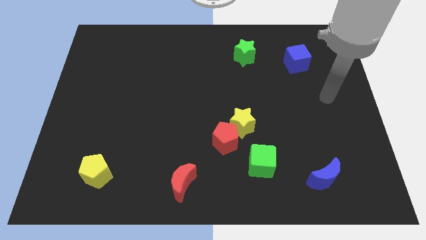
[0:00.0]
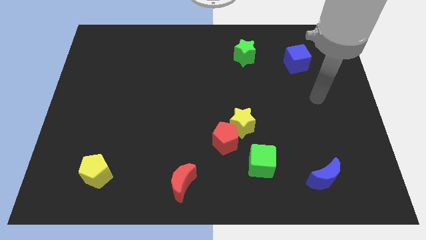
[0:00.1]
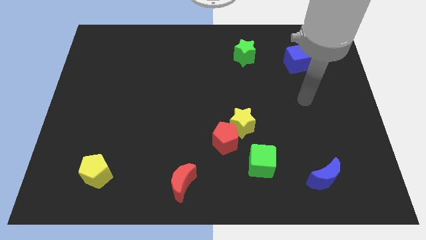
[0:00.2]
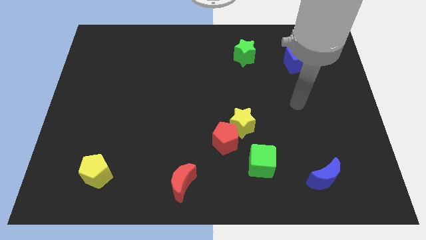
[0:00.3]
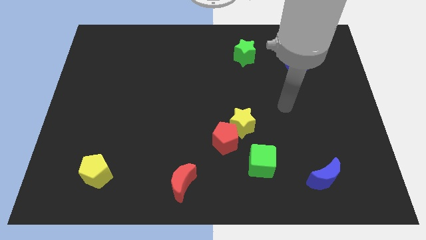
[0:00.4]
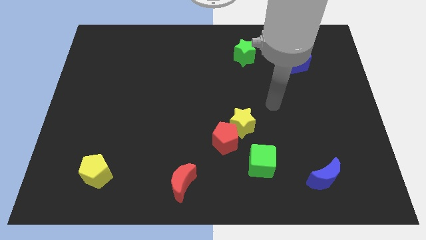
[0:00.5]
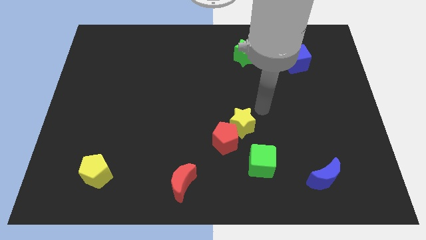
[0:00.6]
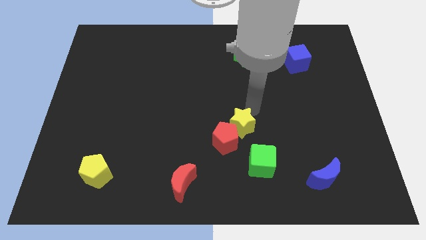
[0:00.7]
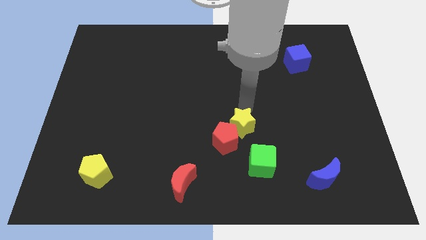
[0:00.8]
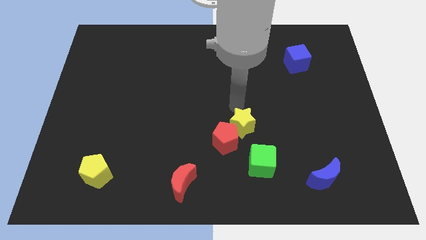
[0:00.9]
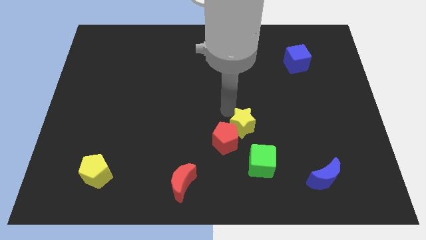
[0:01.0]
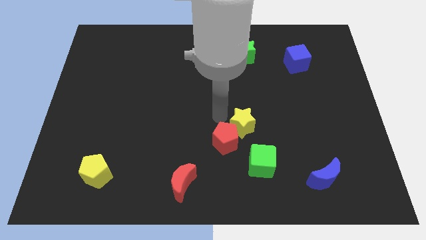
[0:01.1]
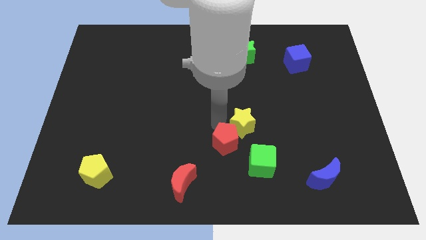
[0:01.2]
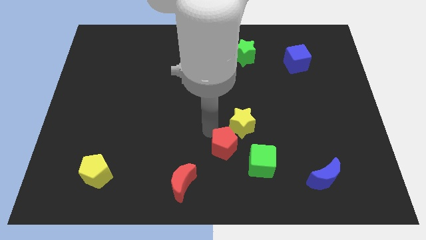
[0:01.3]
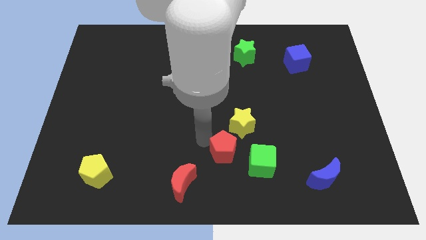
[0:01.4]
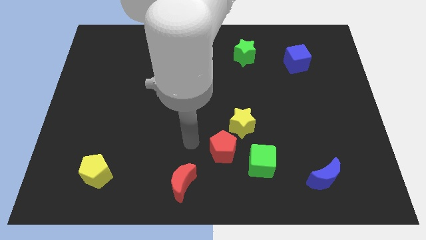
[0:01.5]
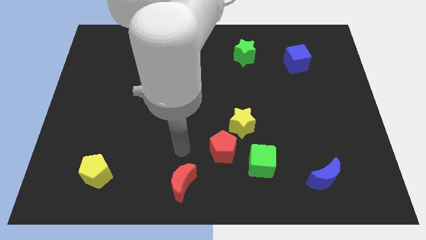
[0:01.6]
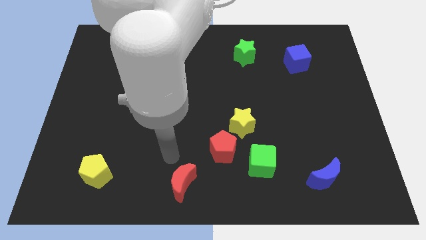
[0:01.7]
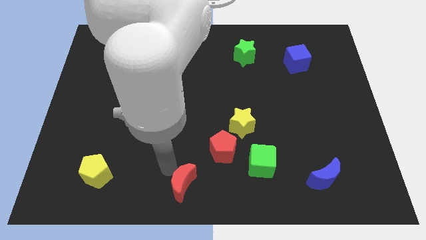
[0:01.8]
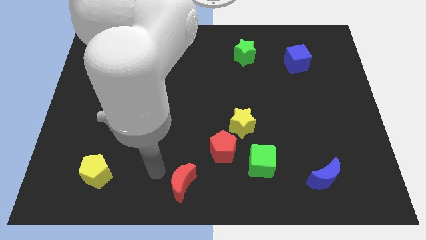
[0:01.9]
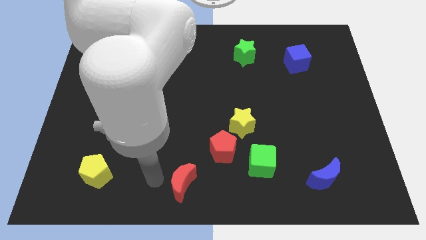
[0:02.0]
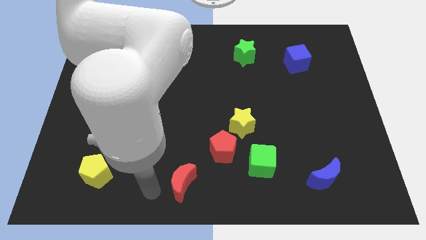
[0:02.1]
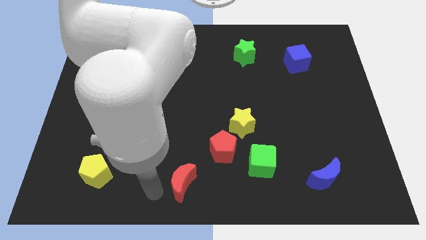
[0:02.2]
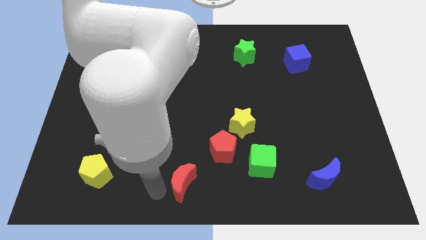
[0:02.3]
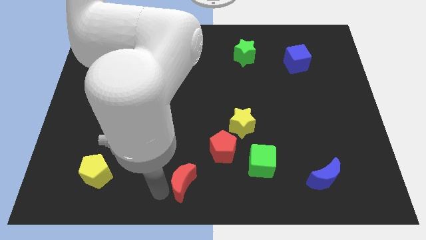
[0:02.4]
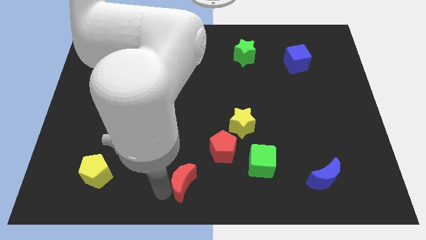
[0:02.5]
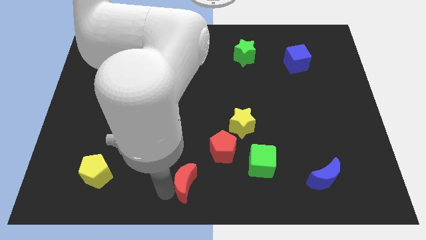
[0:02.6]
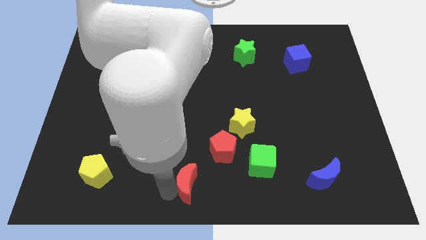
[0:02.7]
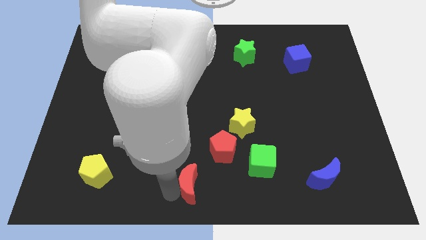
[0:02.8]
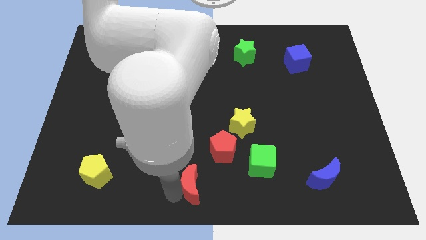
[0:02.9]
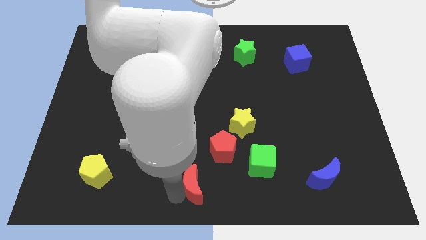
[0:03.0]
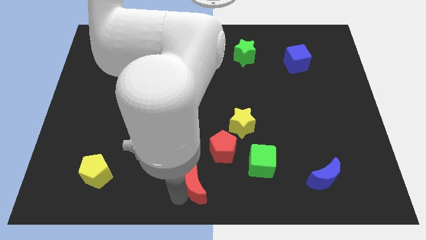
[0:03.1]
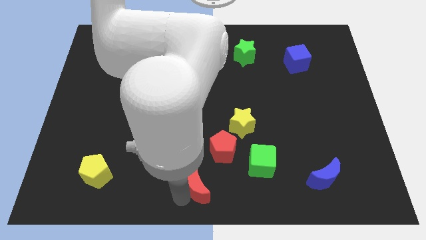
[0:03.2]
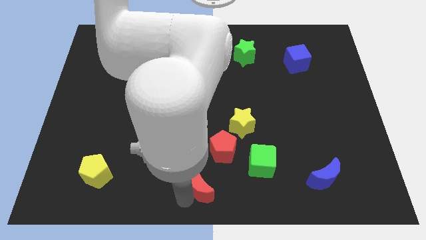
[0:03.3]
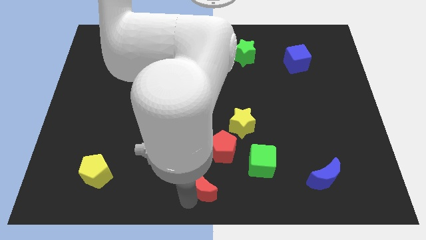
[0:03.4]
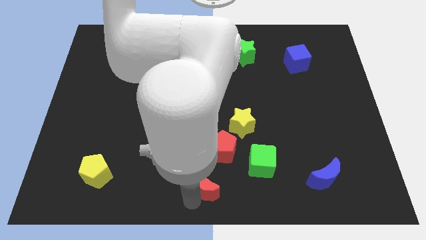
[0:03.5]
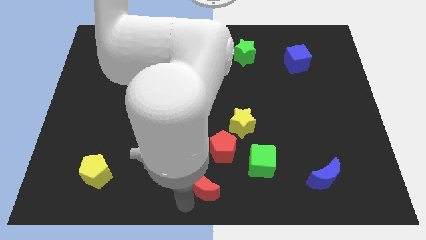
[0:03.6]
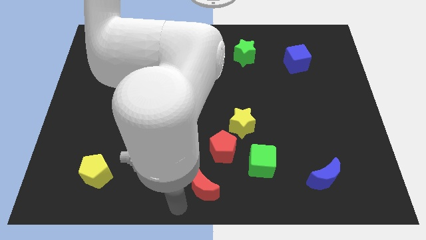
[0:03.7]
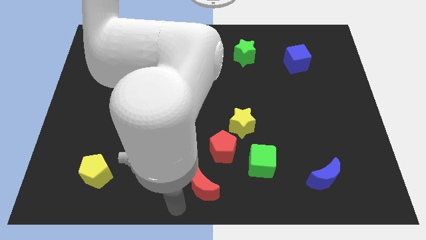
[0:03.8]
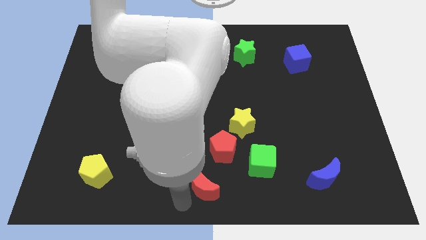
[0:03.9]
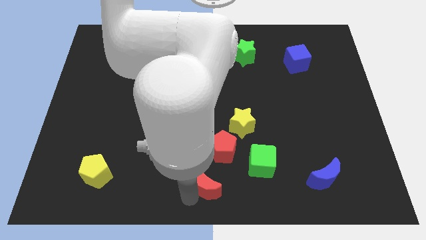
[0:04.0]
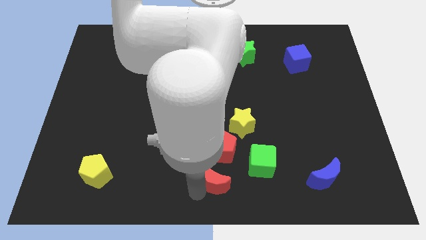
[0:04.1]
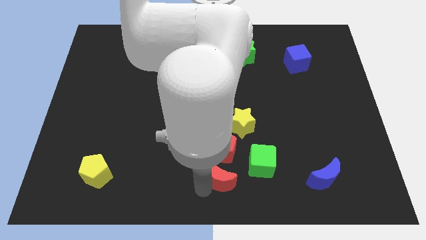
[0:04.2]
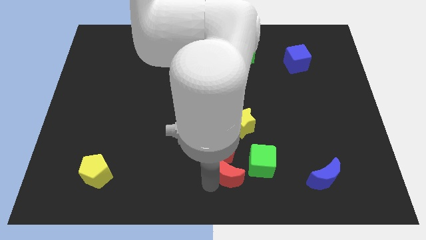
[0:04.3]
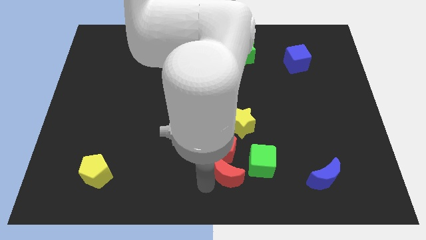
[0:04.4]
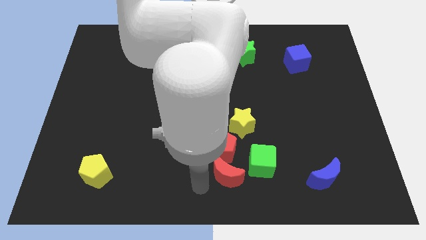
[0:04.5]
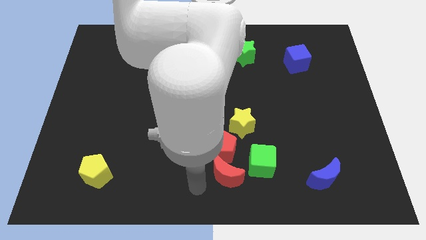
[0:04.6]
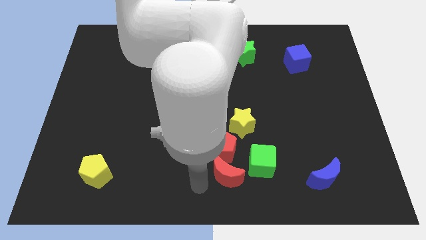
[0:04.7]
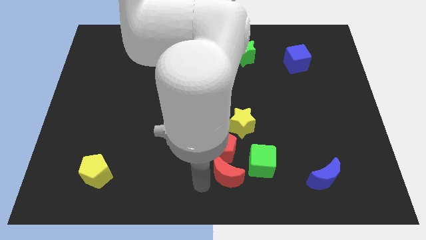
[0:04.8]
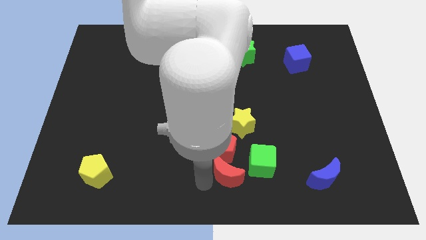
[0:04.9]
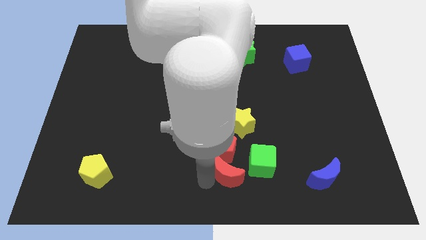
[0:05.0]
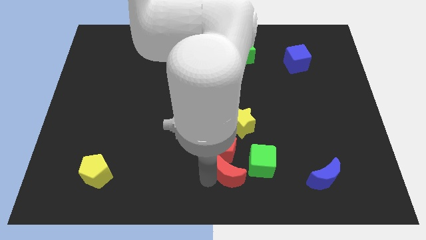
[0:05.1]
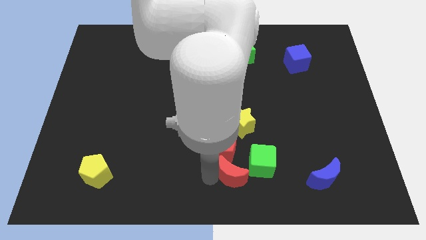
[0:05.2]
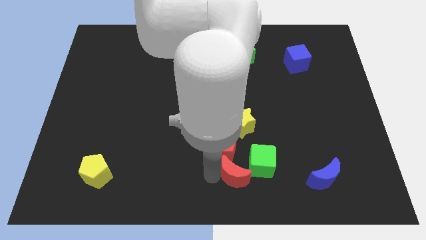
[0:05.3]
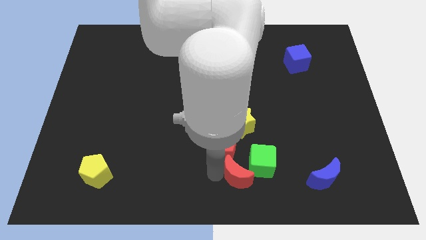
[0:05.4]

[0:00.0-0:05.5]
slide the red moon to the green cube

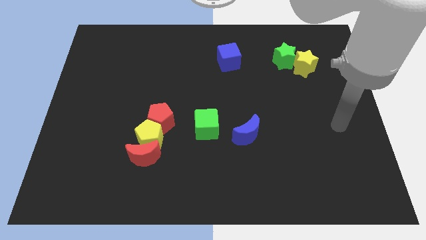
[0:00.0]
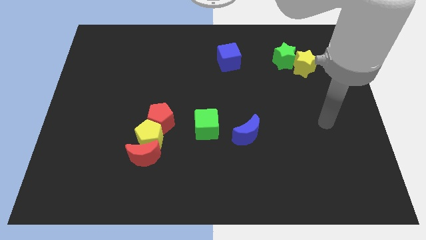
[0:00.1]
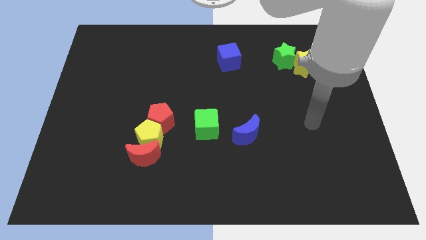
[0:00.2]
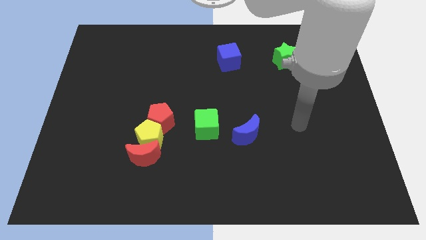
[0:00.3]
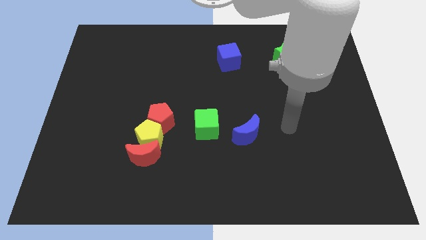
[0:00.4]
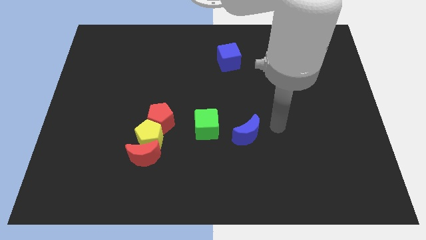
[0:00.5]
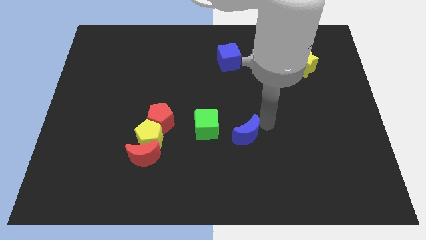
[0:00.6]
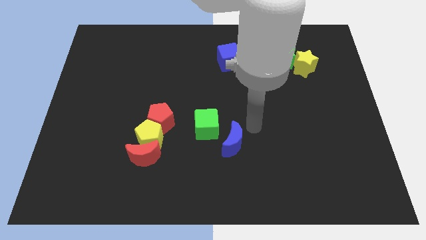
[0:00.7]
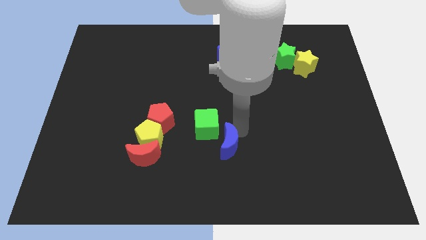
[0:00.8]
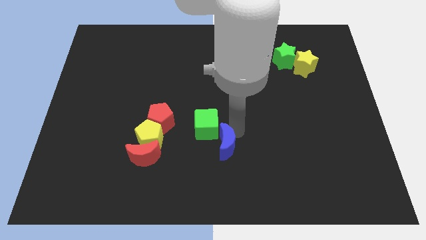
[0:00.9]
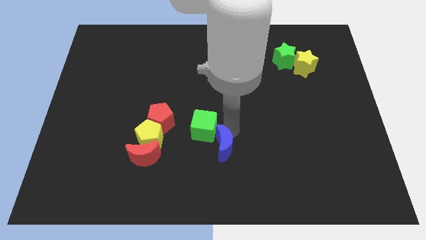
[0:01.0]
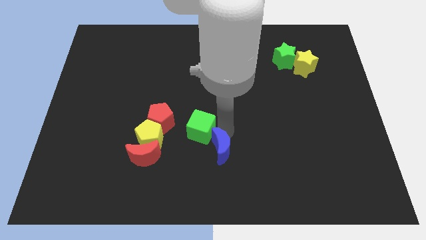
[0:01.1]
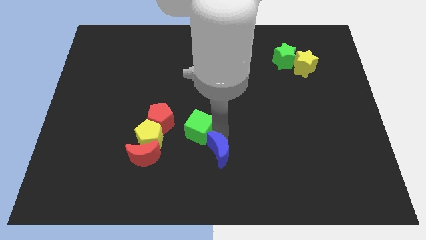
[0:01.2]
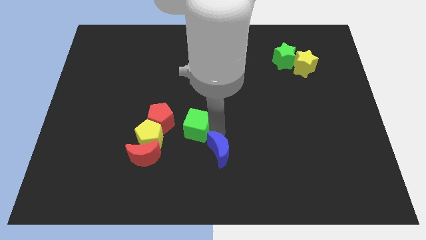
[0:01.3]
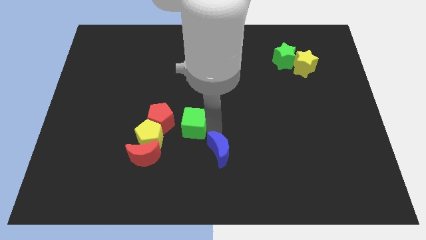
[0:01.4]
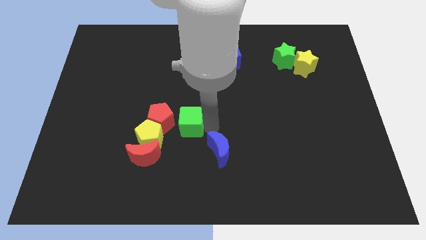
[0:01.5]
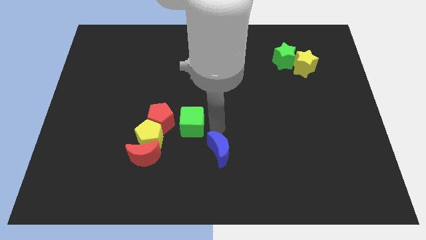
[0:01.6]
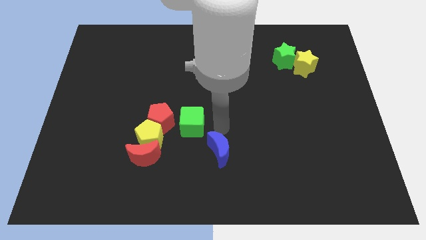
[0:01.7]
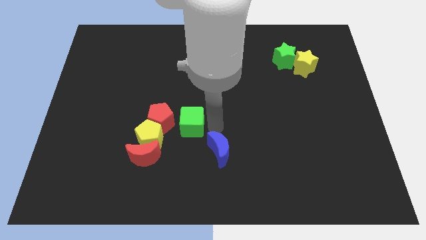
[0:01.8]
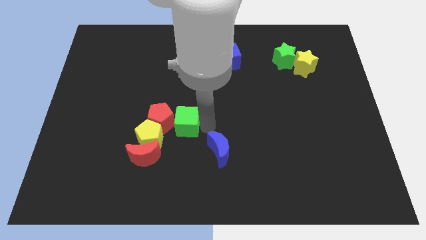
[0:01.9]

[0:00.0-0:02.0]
slide the green cube next to the red pentagon
